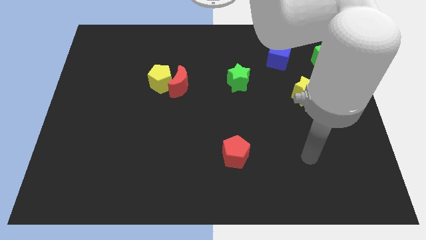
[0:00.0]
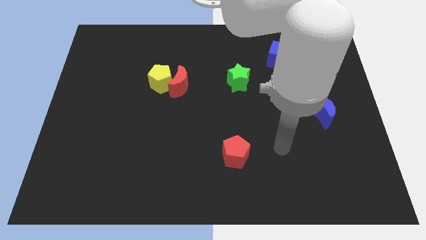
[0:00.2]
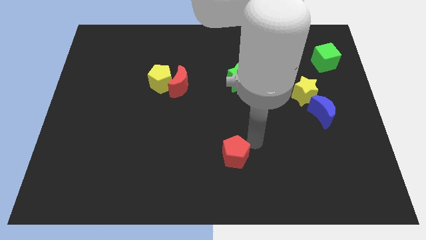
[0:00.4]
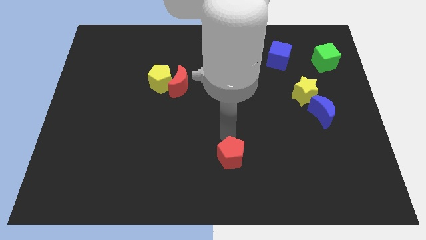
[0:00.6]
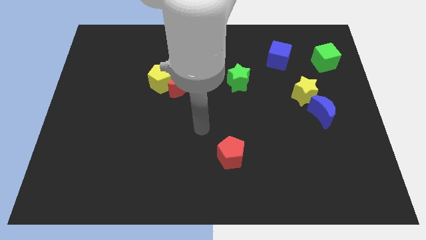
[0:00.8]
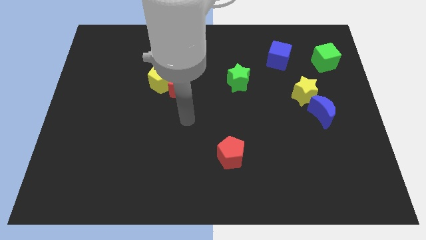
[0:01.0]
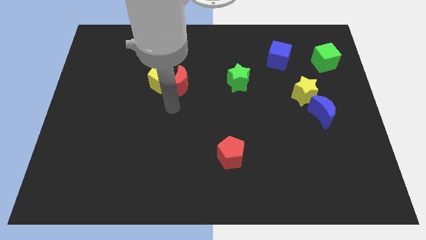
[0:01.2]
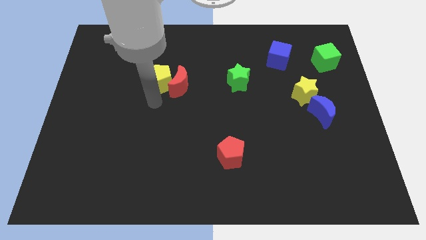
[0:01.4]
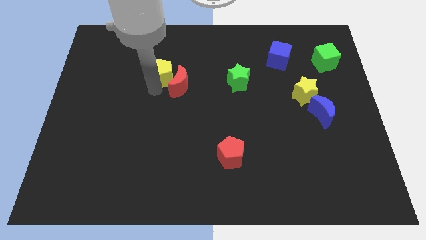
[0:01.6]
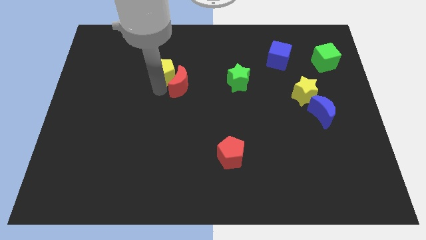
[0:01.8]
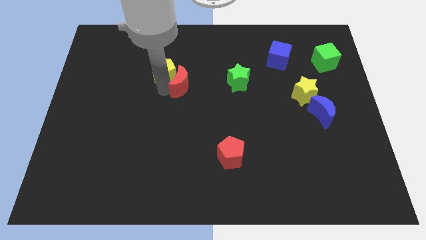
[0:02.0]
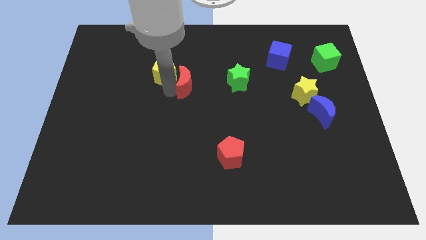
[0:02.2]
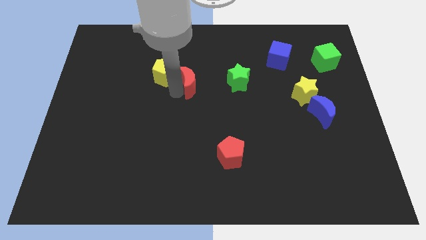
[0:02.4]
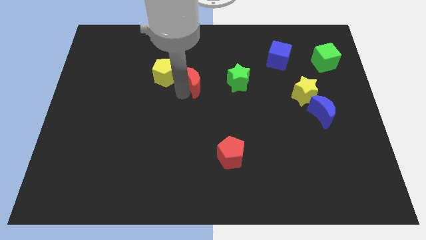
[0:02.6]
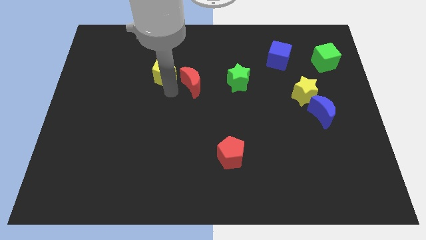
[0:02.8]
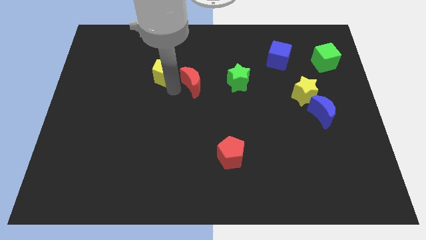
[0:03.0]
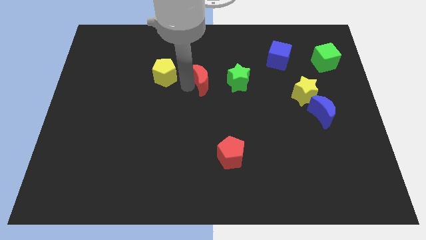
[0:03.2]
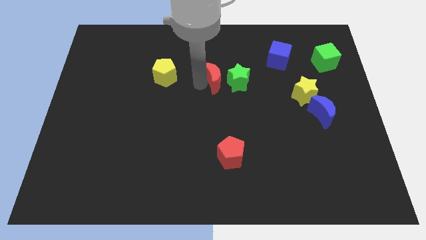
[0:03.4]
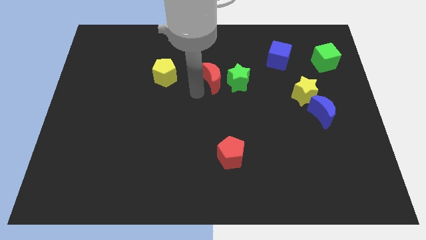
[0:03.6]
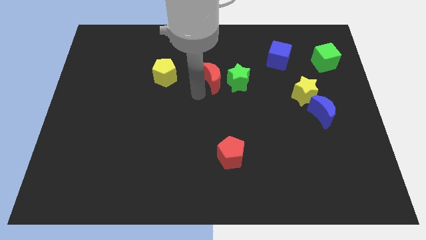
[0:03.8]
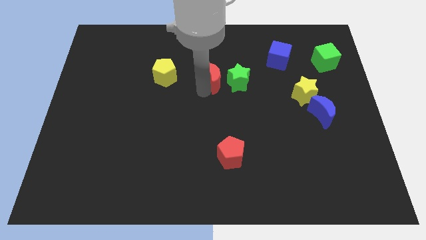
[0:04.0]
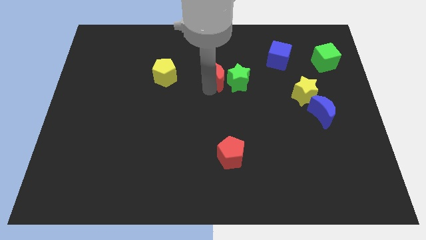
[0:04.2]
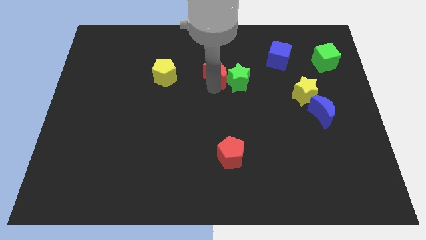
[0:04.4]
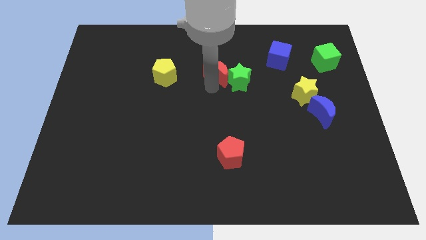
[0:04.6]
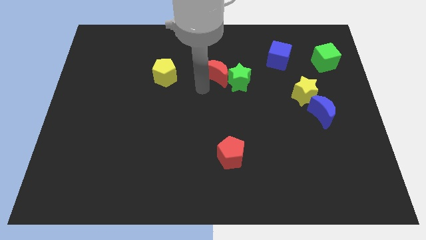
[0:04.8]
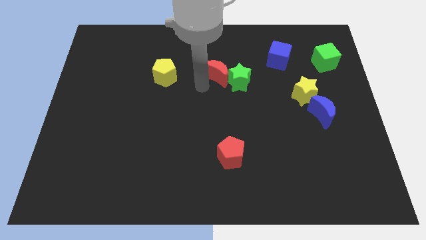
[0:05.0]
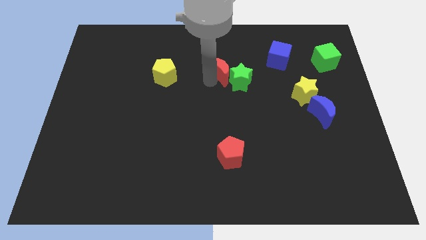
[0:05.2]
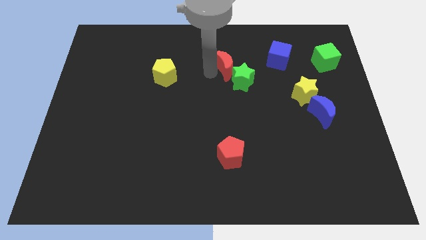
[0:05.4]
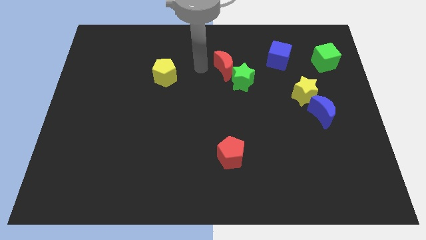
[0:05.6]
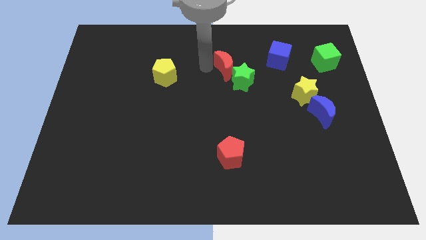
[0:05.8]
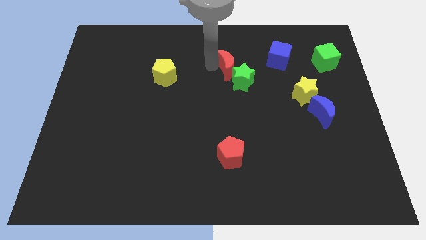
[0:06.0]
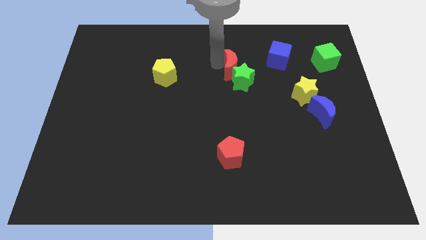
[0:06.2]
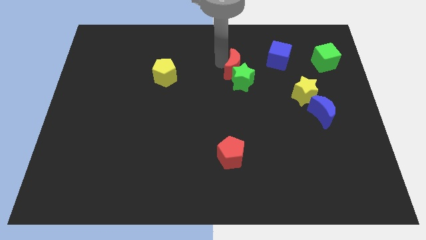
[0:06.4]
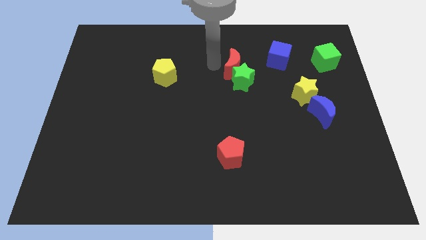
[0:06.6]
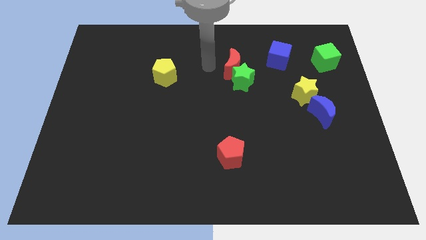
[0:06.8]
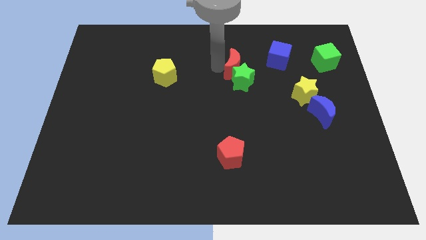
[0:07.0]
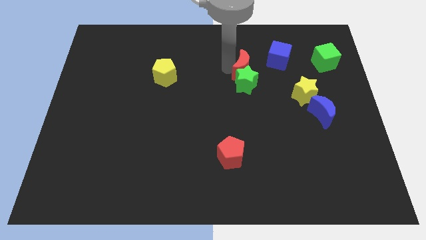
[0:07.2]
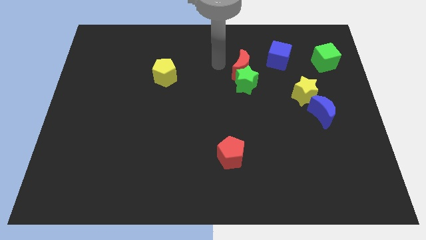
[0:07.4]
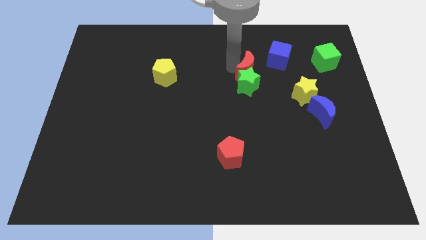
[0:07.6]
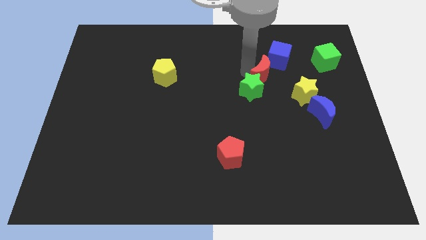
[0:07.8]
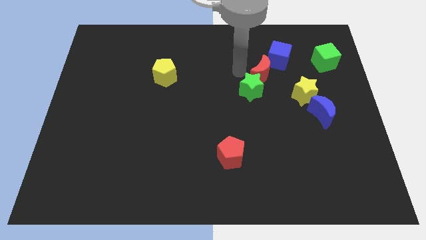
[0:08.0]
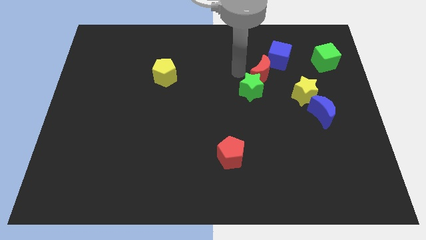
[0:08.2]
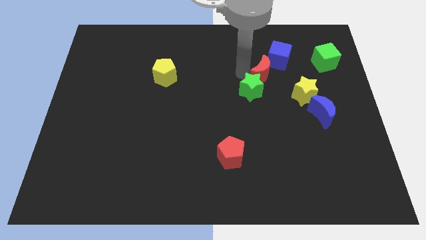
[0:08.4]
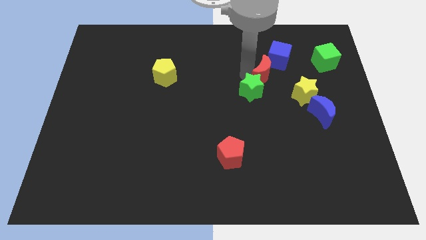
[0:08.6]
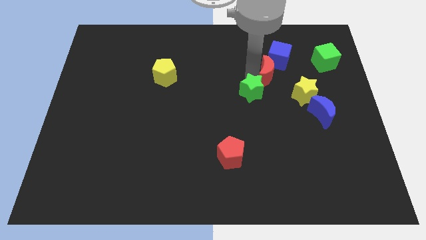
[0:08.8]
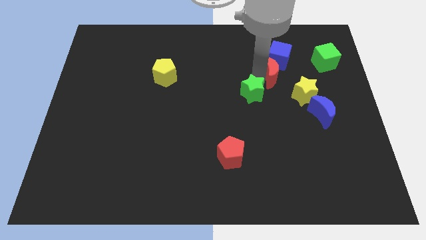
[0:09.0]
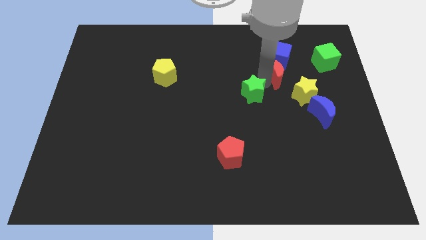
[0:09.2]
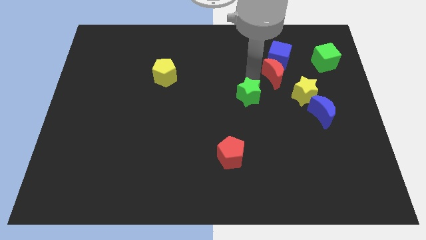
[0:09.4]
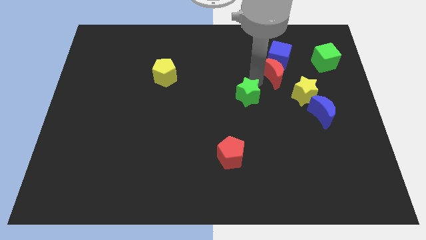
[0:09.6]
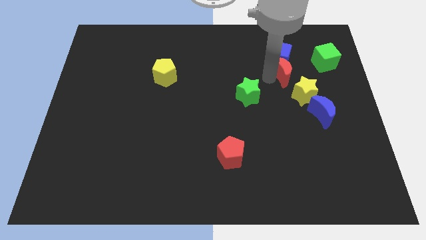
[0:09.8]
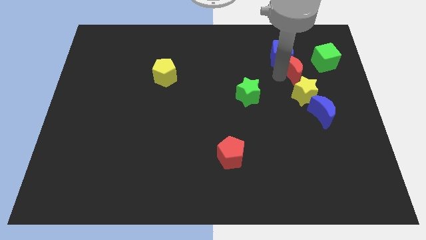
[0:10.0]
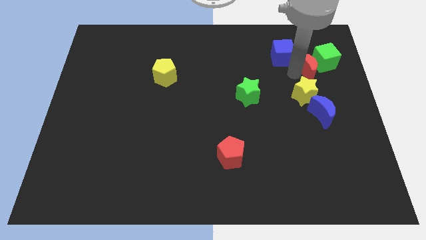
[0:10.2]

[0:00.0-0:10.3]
slide the red moon close to the green cube

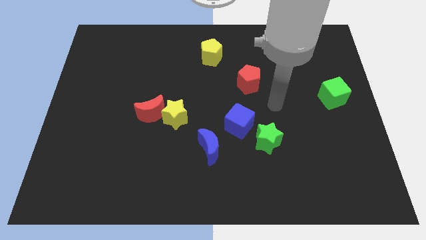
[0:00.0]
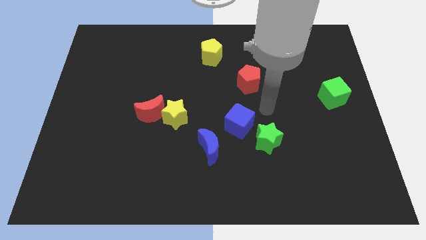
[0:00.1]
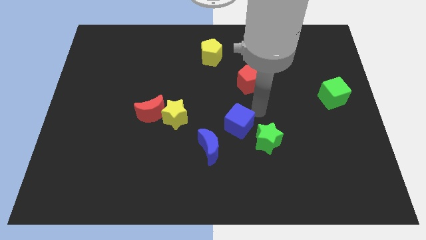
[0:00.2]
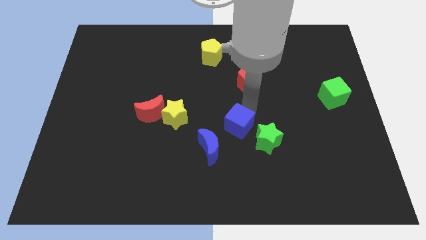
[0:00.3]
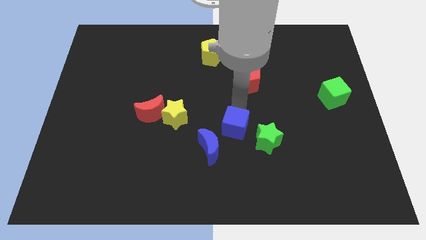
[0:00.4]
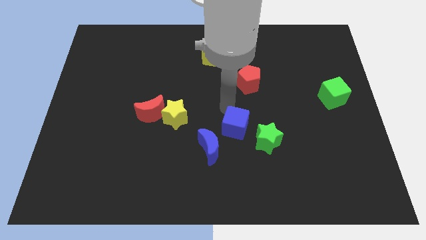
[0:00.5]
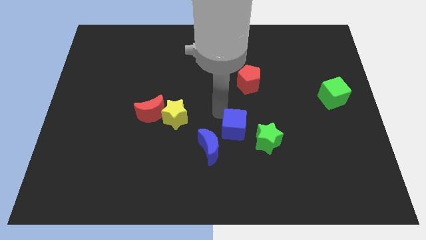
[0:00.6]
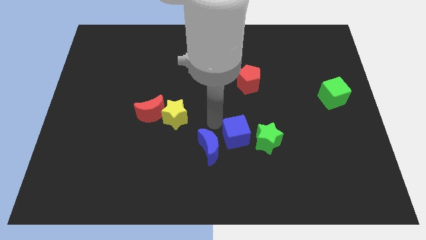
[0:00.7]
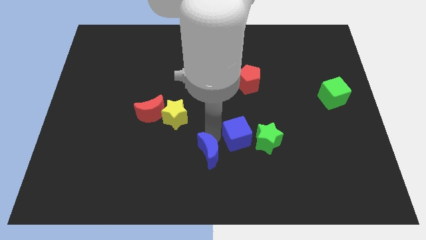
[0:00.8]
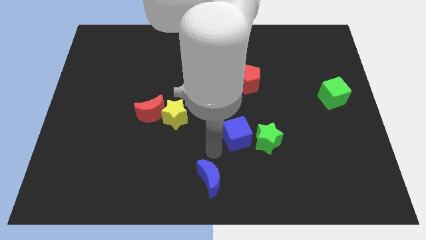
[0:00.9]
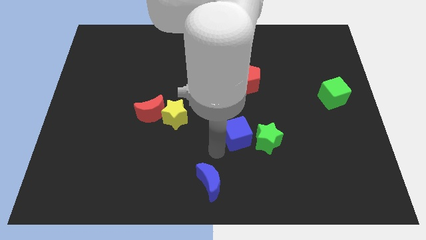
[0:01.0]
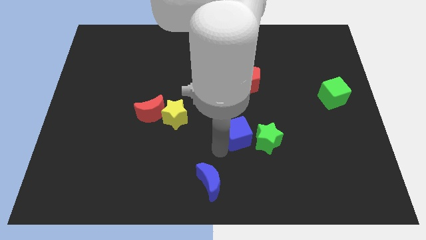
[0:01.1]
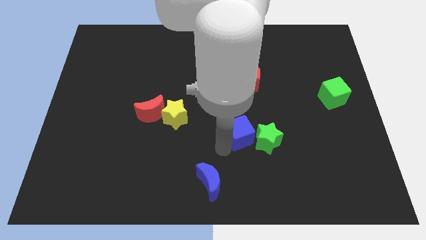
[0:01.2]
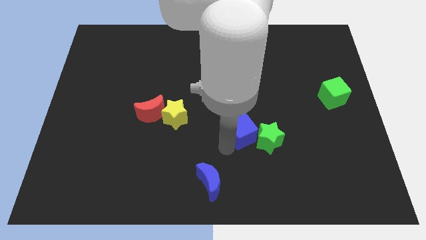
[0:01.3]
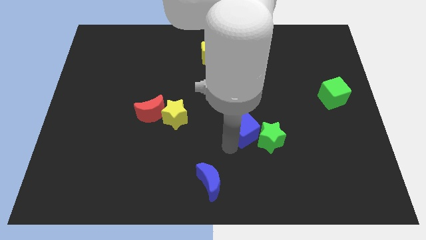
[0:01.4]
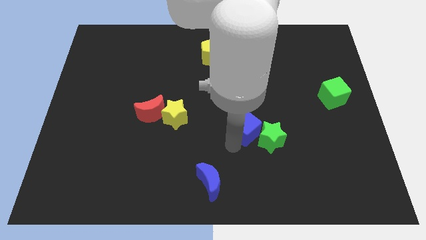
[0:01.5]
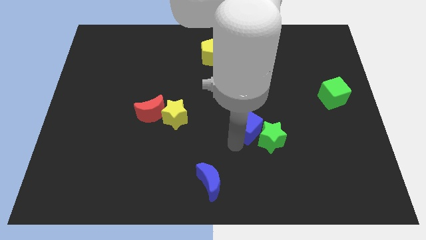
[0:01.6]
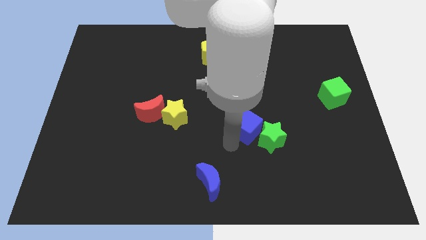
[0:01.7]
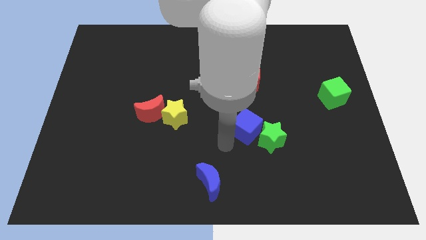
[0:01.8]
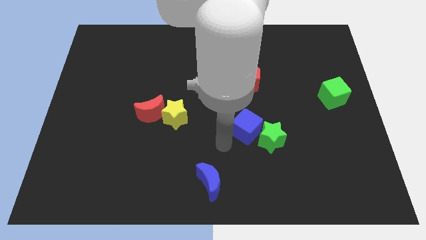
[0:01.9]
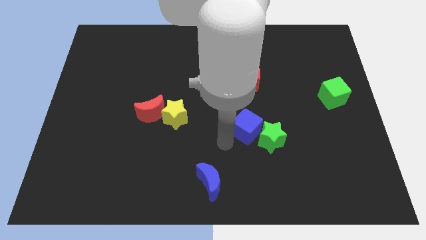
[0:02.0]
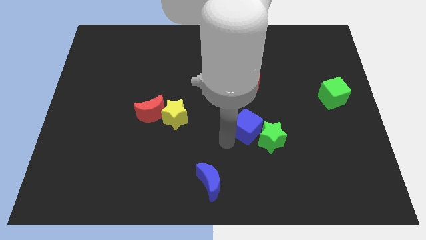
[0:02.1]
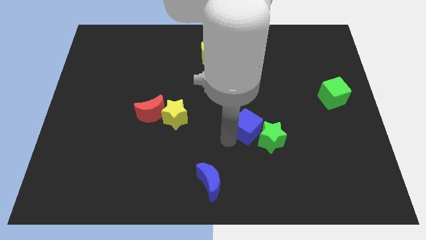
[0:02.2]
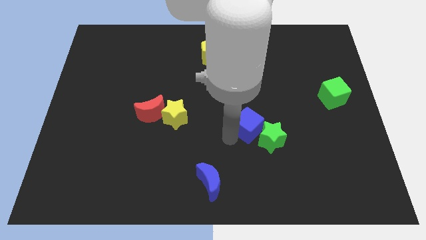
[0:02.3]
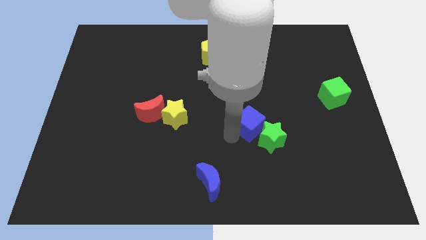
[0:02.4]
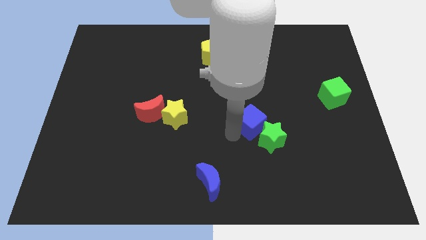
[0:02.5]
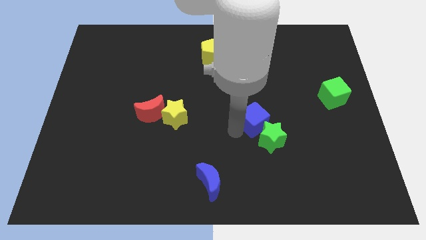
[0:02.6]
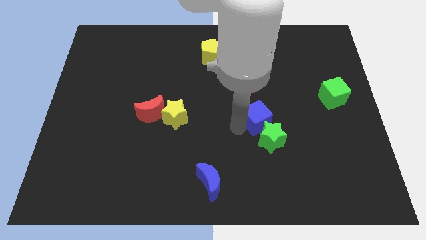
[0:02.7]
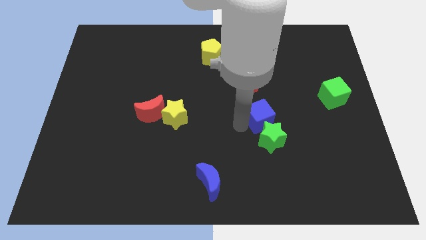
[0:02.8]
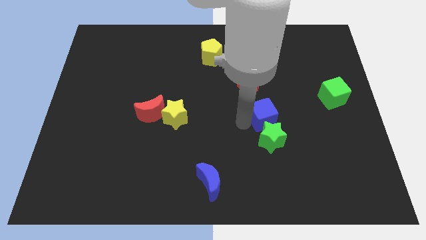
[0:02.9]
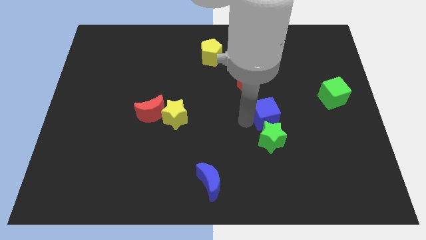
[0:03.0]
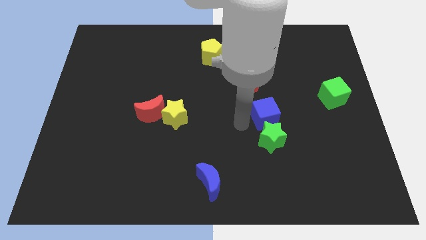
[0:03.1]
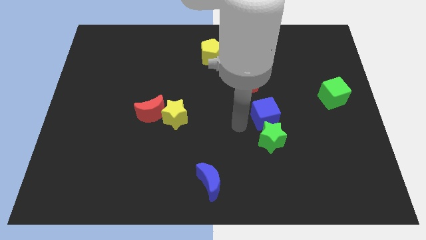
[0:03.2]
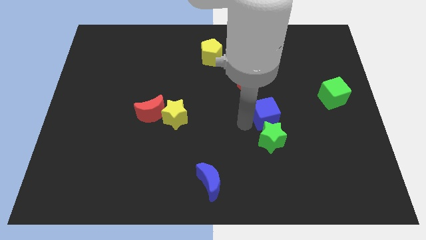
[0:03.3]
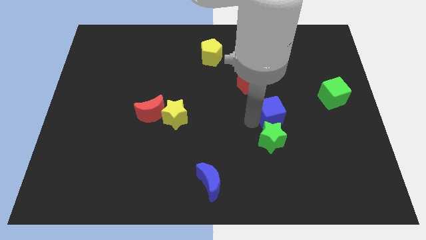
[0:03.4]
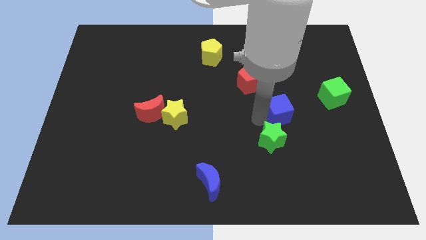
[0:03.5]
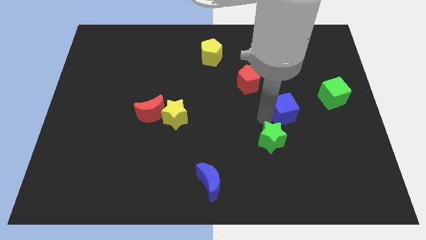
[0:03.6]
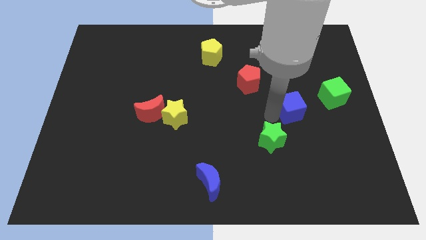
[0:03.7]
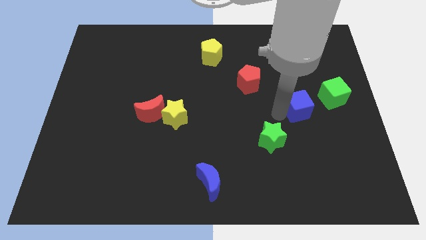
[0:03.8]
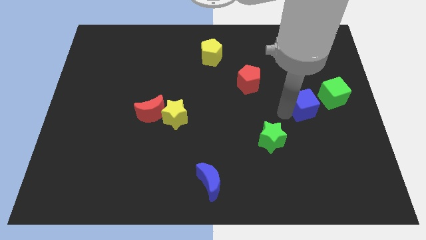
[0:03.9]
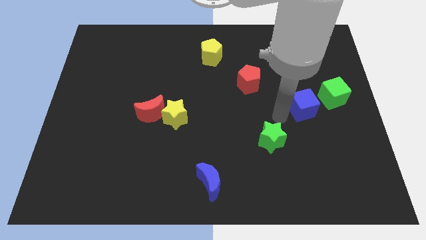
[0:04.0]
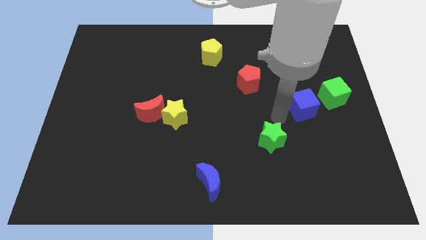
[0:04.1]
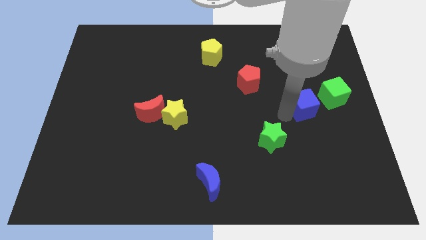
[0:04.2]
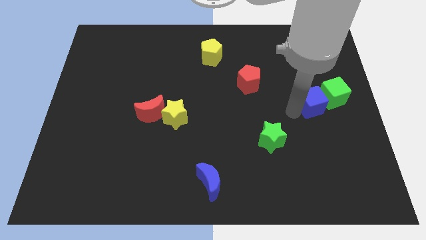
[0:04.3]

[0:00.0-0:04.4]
slide the blue cube close to the green cube
